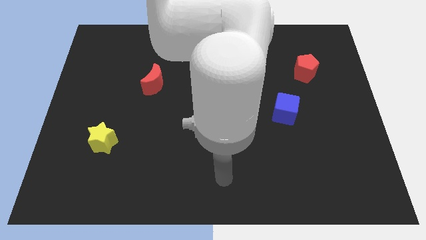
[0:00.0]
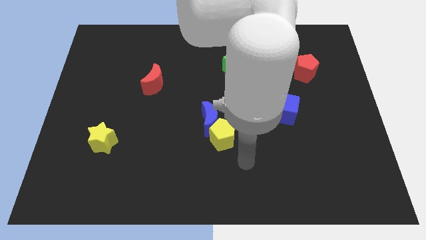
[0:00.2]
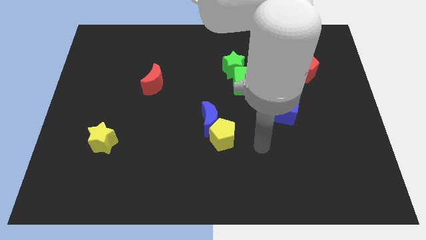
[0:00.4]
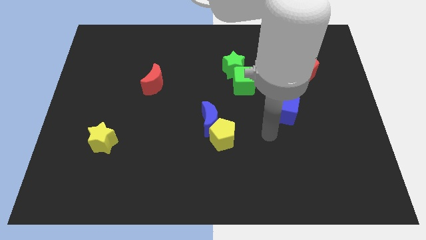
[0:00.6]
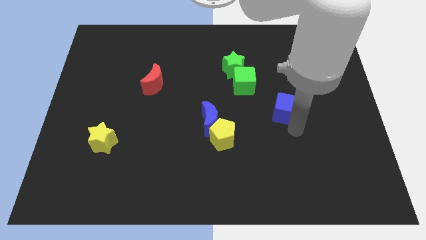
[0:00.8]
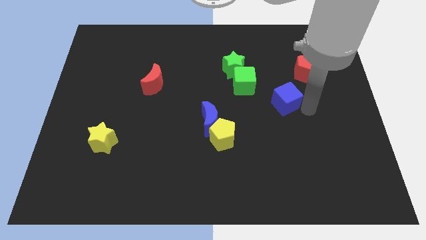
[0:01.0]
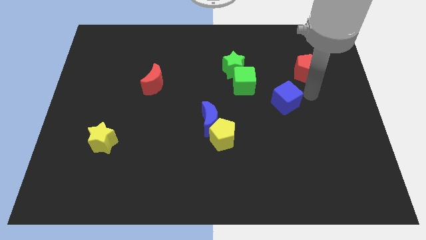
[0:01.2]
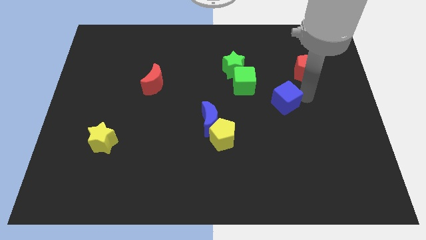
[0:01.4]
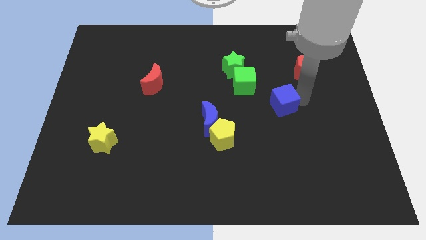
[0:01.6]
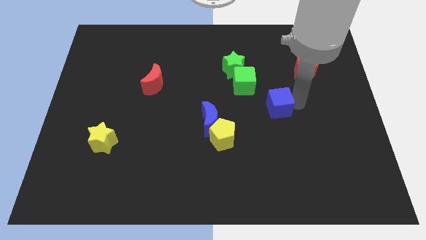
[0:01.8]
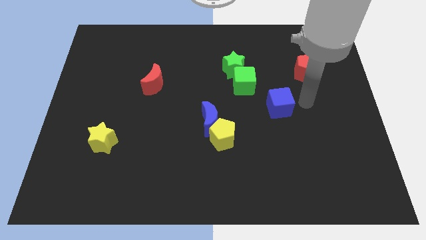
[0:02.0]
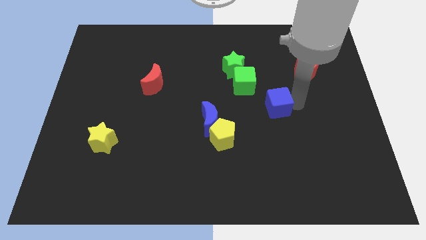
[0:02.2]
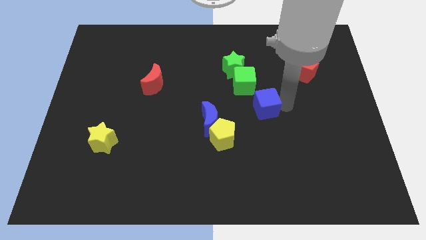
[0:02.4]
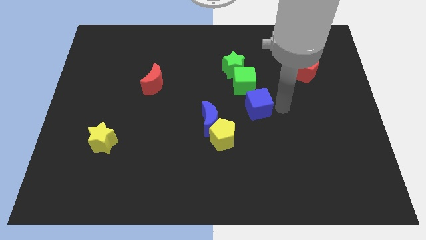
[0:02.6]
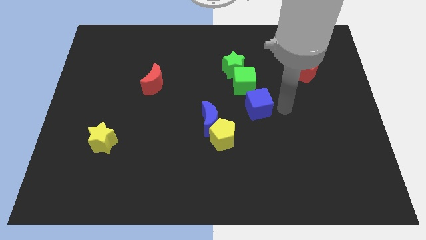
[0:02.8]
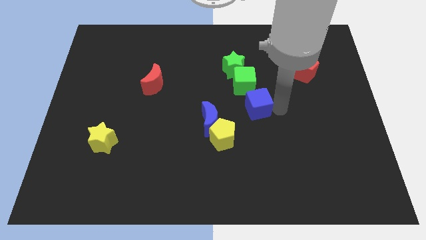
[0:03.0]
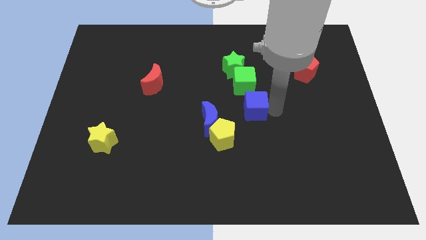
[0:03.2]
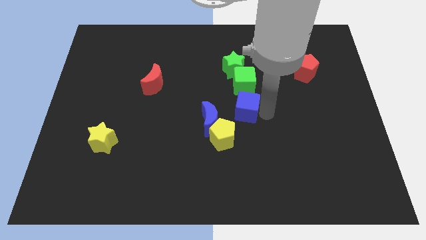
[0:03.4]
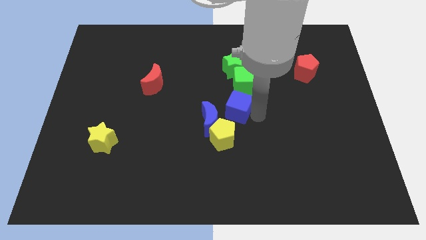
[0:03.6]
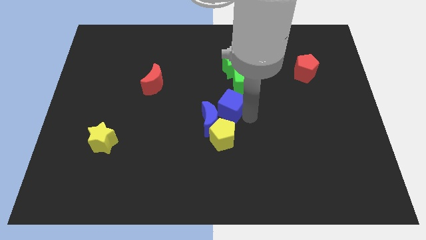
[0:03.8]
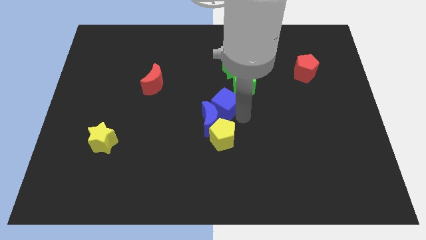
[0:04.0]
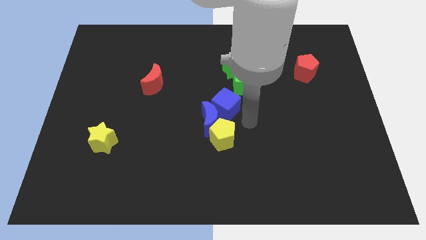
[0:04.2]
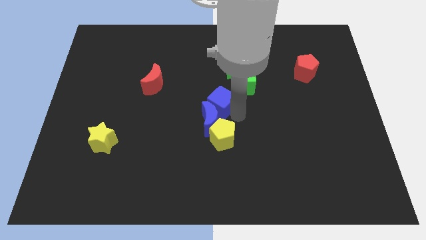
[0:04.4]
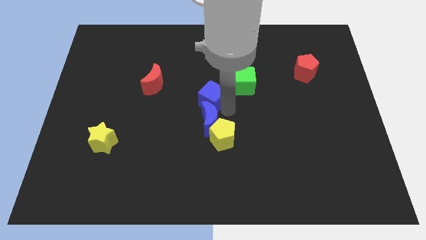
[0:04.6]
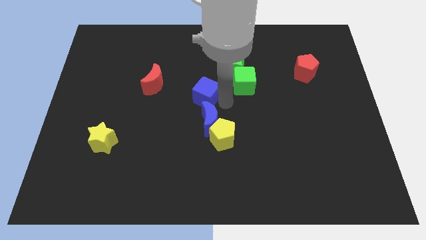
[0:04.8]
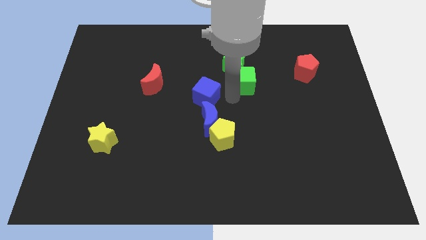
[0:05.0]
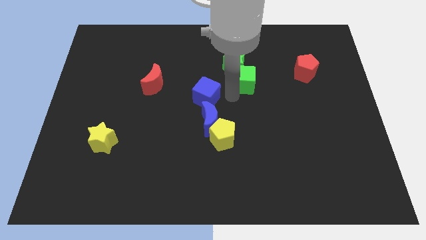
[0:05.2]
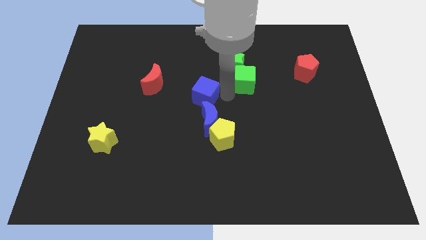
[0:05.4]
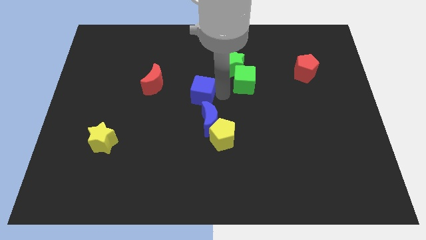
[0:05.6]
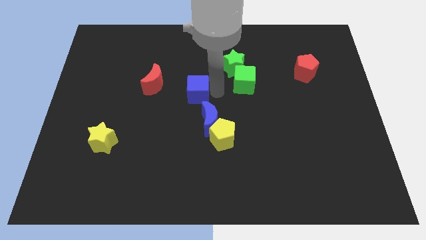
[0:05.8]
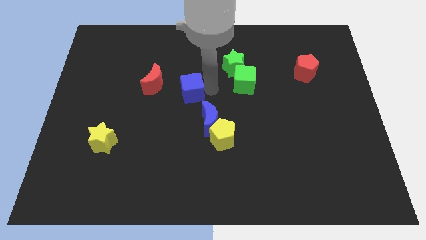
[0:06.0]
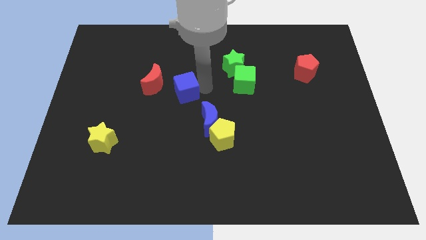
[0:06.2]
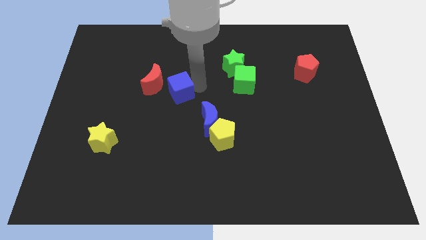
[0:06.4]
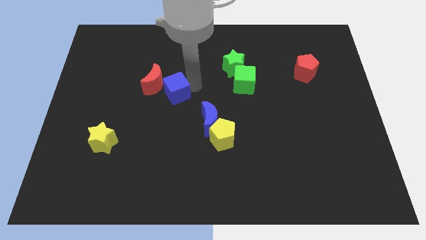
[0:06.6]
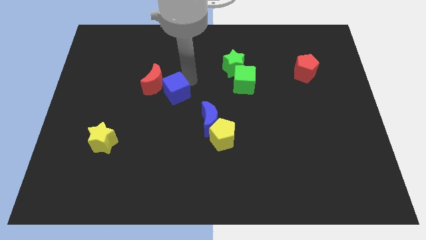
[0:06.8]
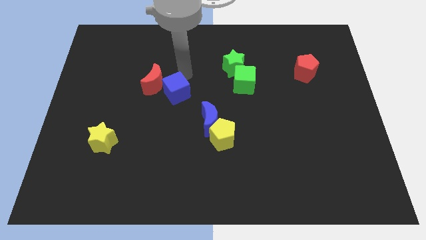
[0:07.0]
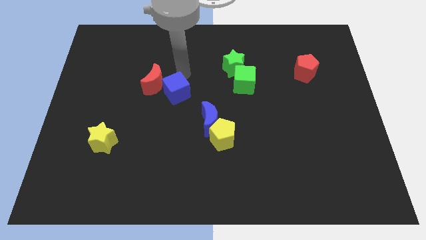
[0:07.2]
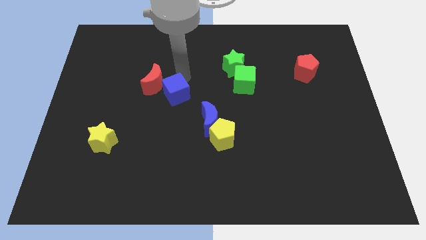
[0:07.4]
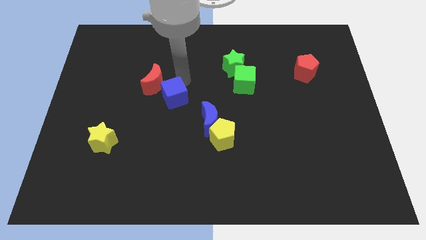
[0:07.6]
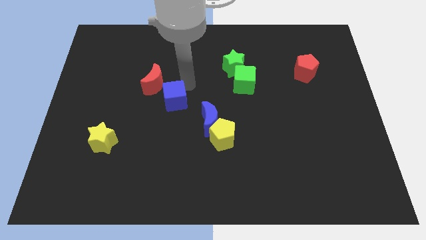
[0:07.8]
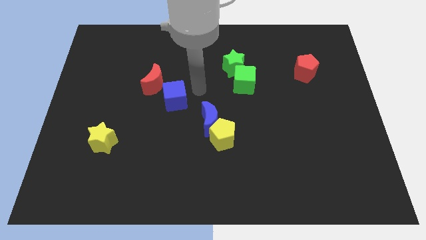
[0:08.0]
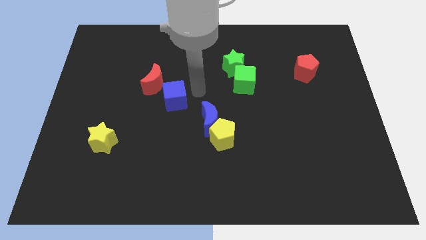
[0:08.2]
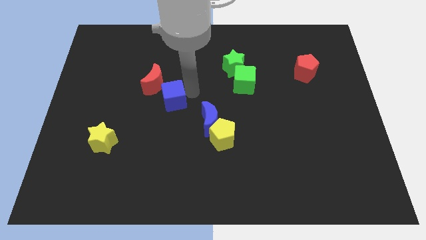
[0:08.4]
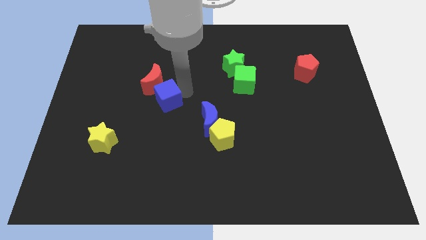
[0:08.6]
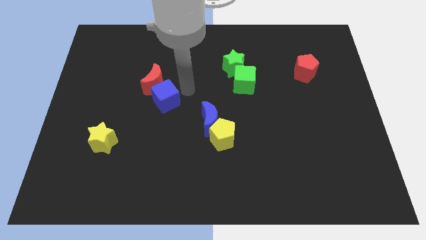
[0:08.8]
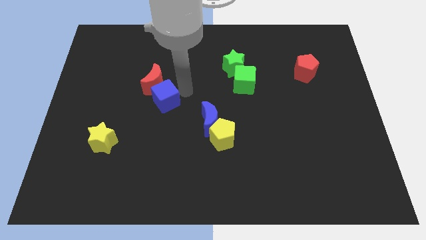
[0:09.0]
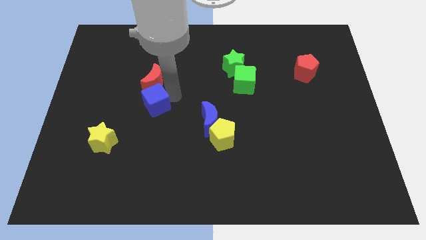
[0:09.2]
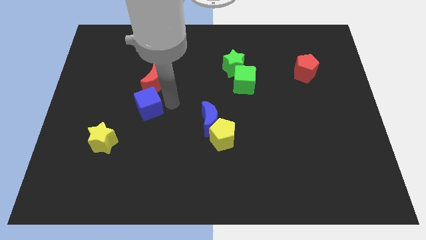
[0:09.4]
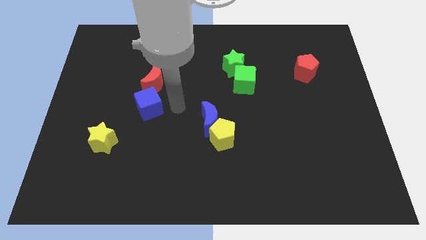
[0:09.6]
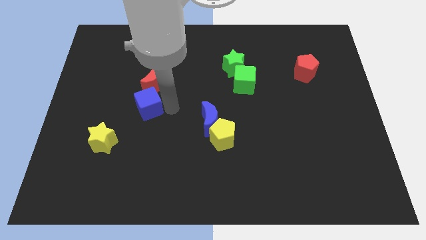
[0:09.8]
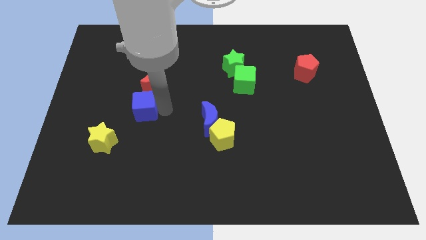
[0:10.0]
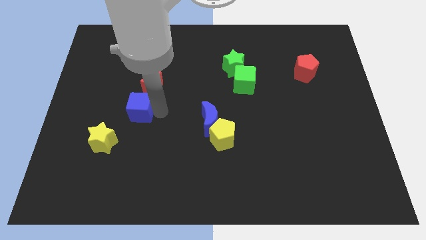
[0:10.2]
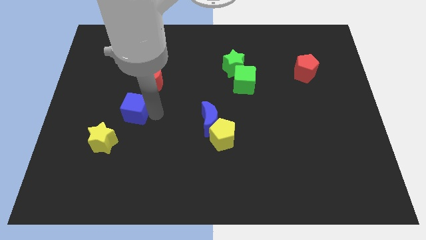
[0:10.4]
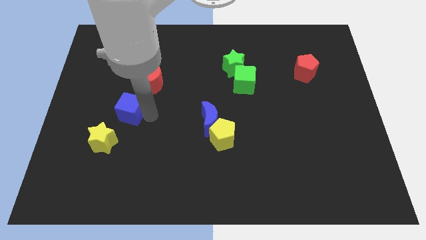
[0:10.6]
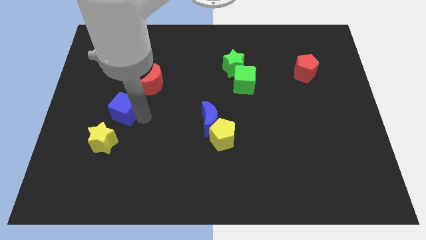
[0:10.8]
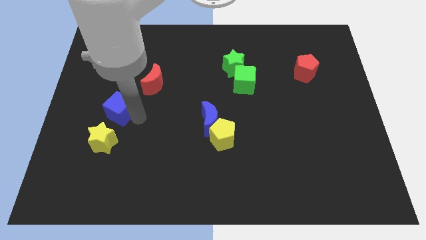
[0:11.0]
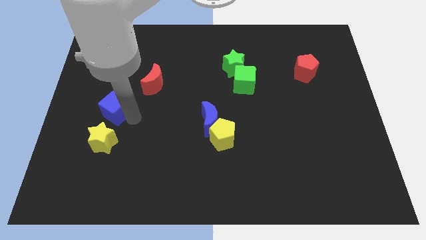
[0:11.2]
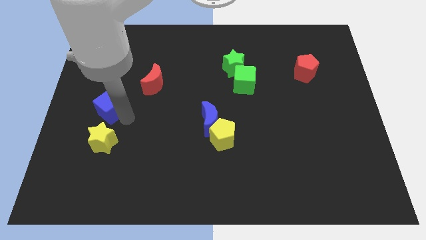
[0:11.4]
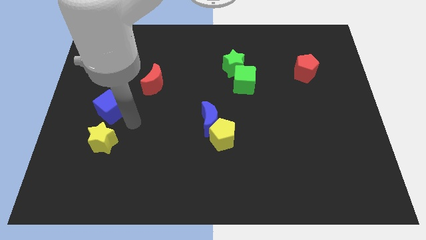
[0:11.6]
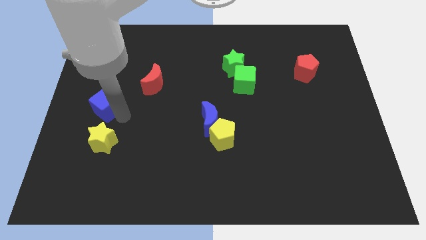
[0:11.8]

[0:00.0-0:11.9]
move the blue cube to the left side

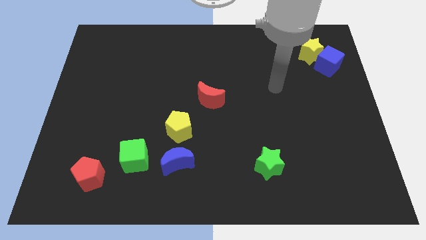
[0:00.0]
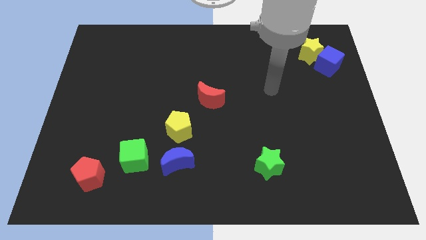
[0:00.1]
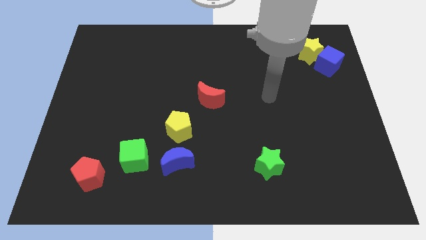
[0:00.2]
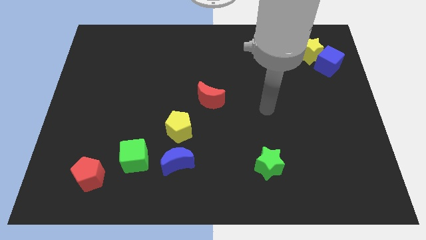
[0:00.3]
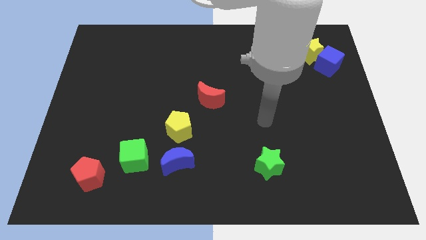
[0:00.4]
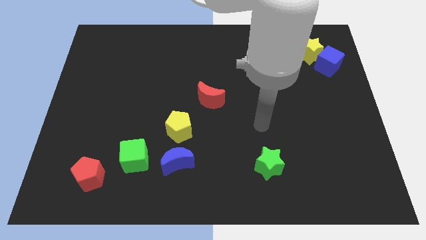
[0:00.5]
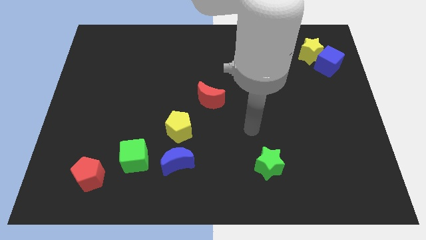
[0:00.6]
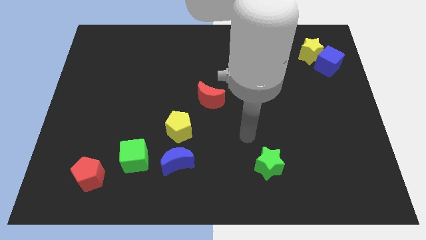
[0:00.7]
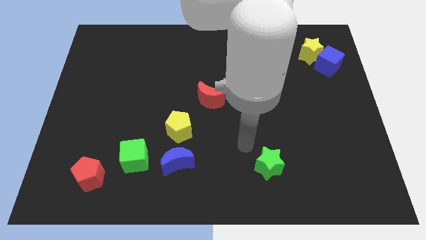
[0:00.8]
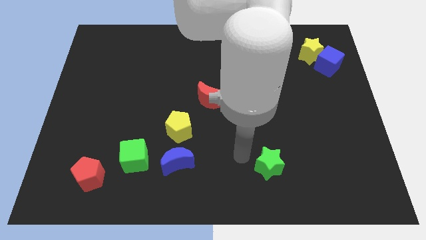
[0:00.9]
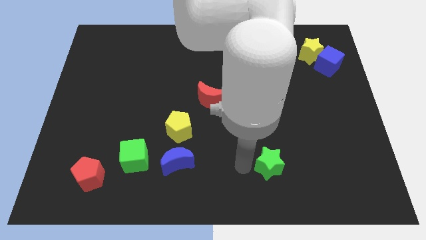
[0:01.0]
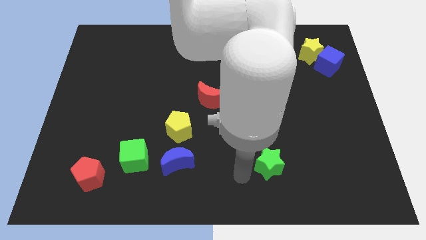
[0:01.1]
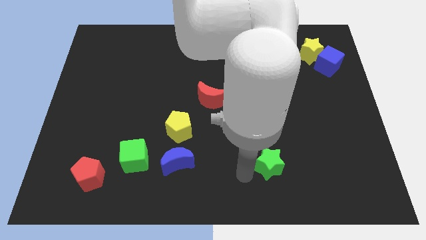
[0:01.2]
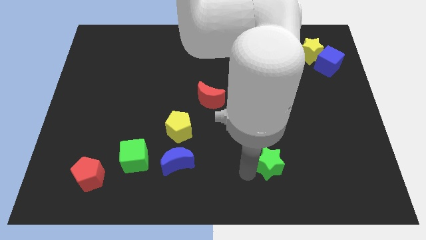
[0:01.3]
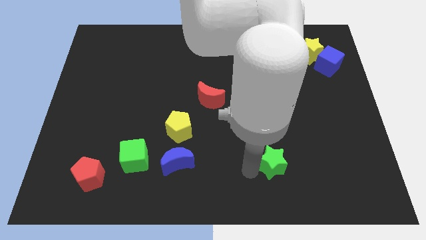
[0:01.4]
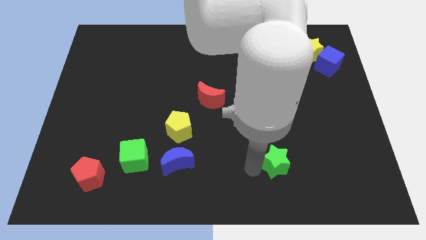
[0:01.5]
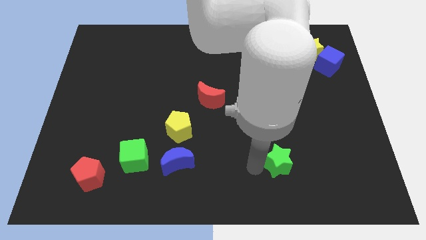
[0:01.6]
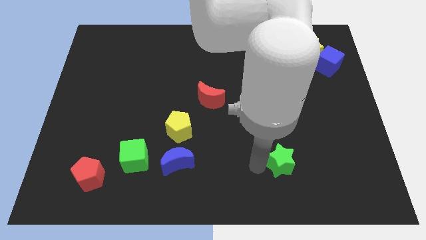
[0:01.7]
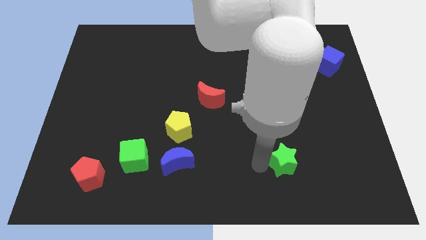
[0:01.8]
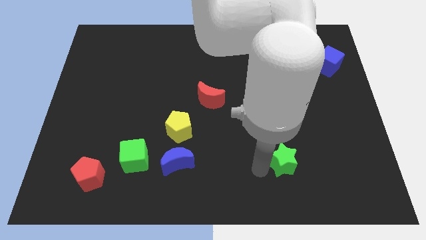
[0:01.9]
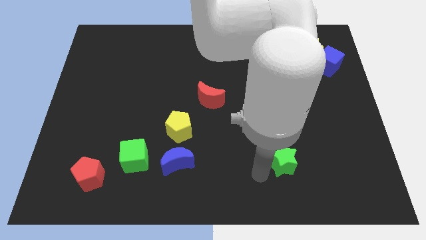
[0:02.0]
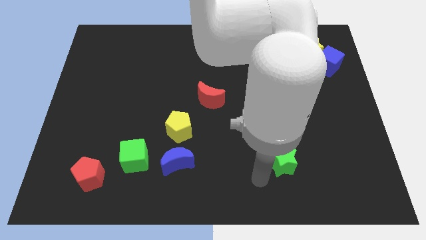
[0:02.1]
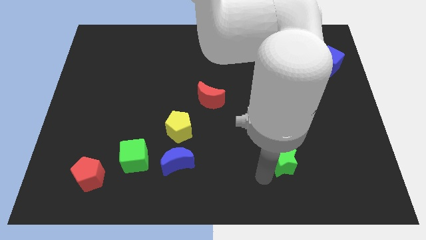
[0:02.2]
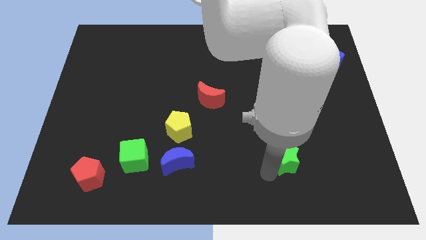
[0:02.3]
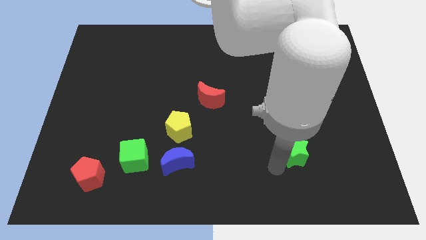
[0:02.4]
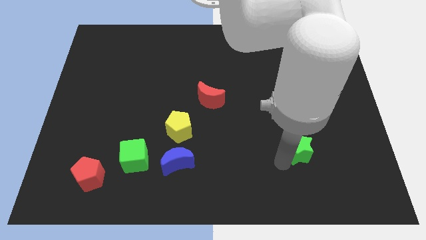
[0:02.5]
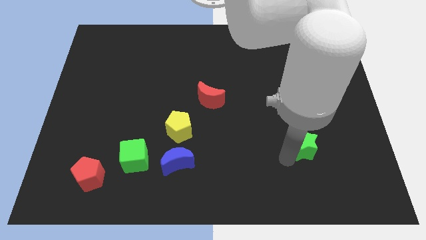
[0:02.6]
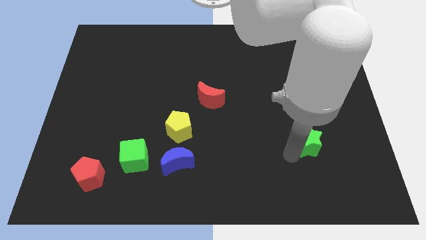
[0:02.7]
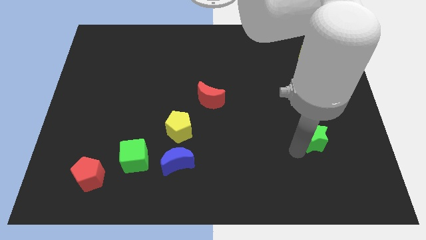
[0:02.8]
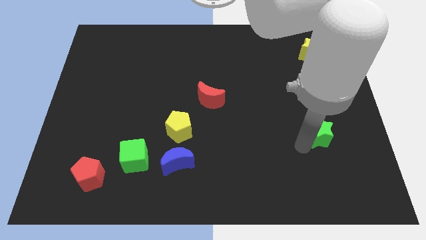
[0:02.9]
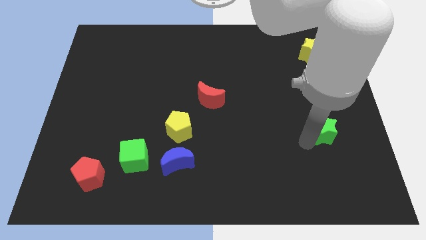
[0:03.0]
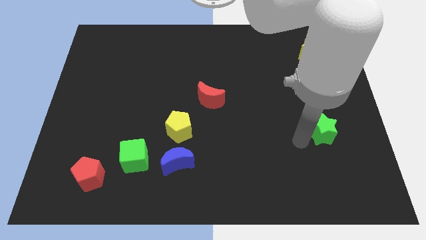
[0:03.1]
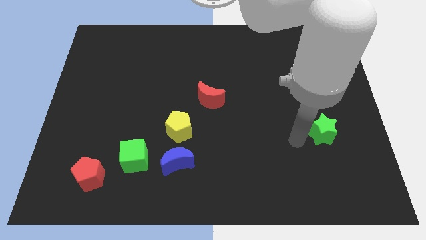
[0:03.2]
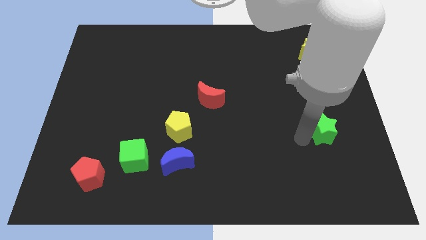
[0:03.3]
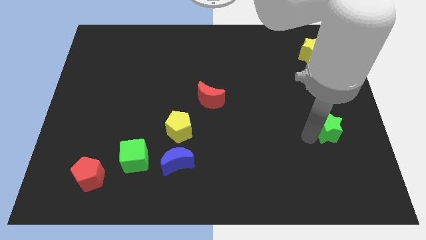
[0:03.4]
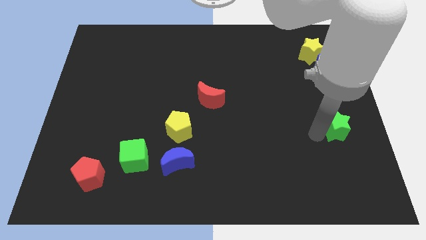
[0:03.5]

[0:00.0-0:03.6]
move the green star to the right side of the board
